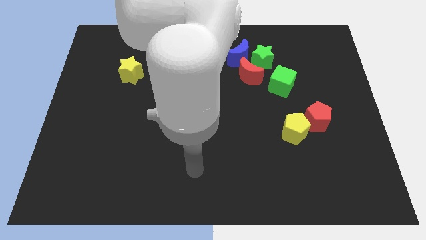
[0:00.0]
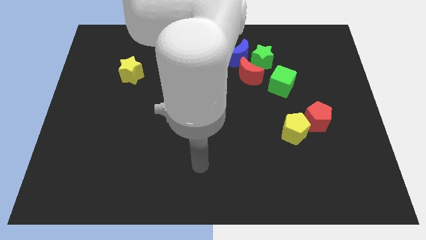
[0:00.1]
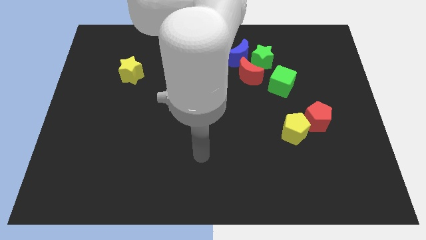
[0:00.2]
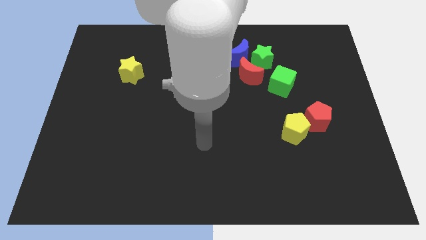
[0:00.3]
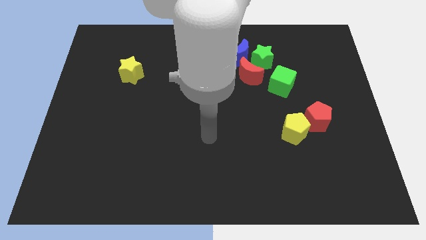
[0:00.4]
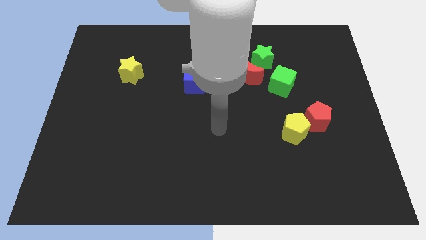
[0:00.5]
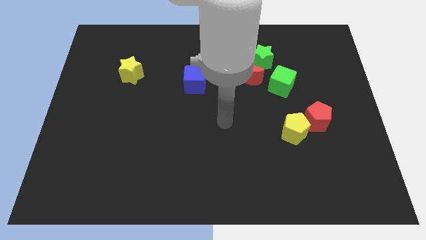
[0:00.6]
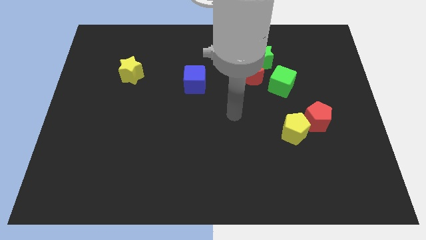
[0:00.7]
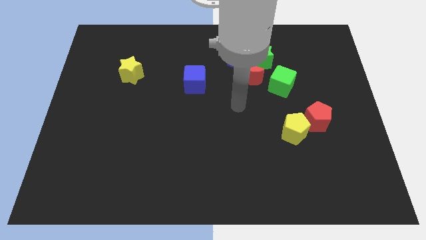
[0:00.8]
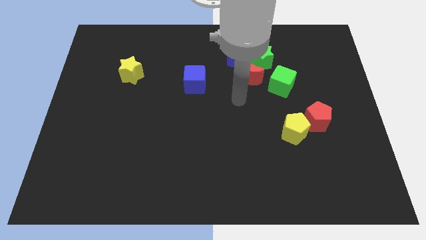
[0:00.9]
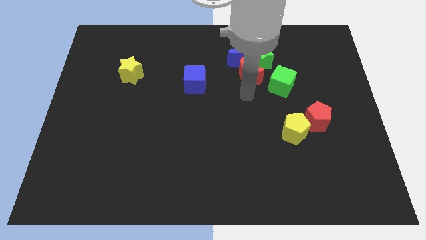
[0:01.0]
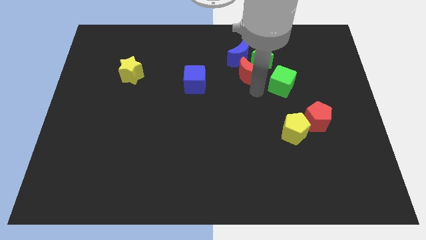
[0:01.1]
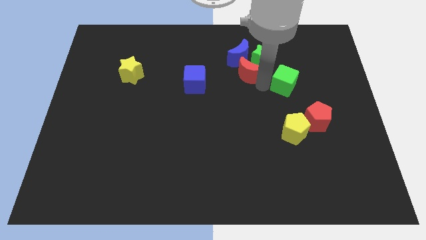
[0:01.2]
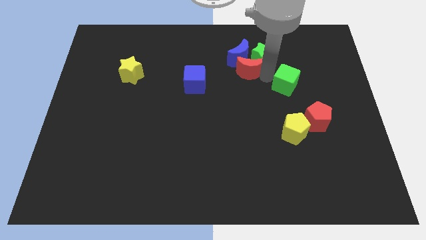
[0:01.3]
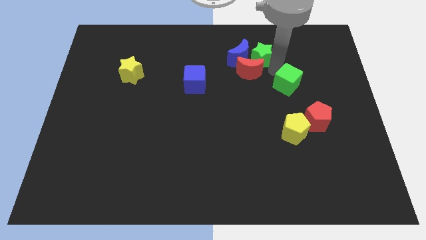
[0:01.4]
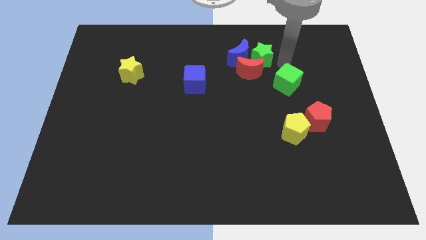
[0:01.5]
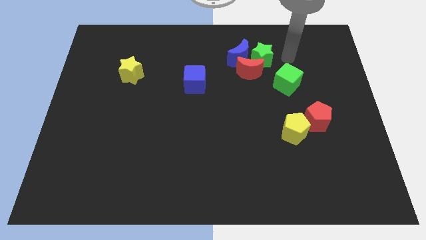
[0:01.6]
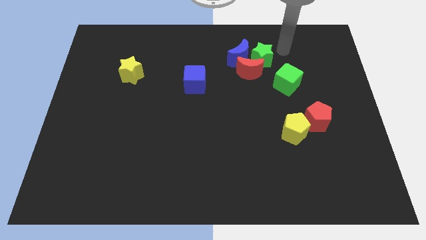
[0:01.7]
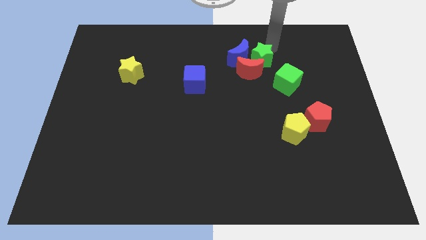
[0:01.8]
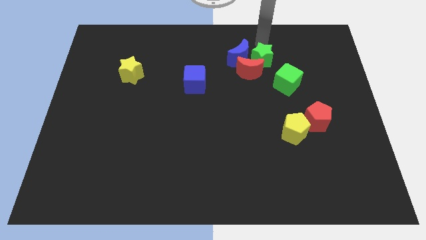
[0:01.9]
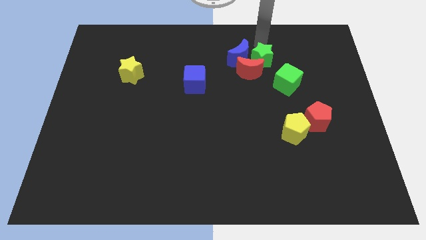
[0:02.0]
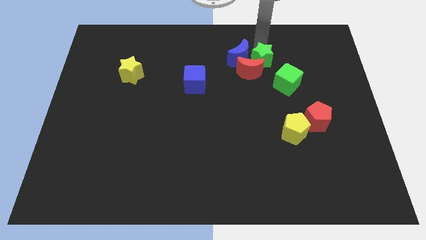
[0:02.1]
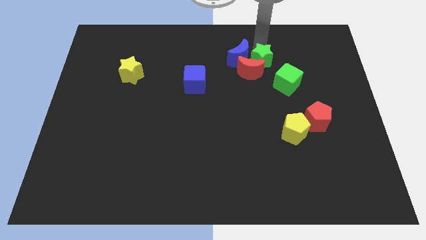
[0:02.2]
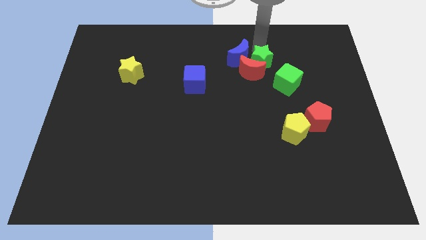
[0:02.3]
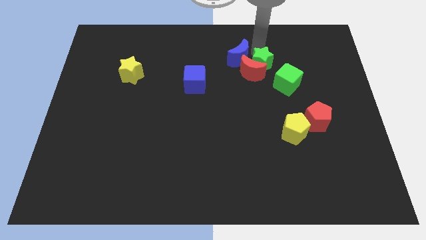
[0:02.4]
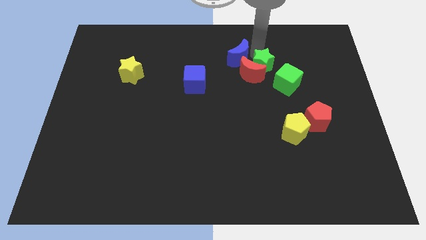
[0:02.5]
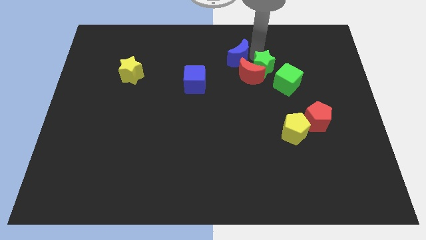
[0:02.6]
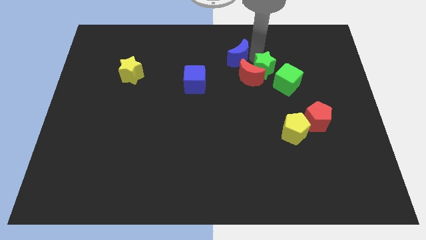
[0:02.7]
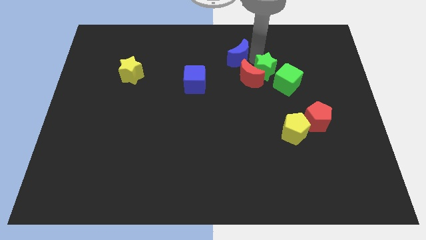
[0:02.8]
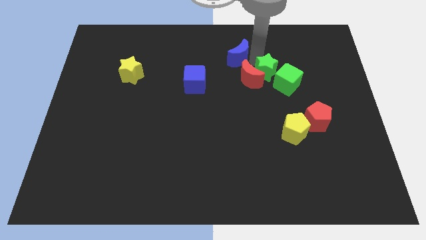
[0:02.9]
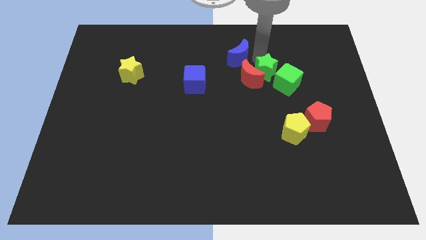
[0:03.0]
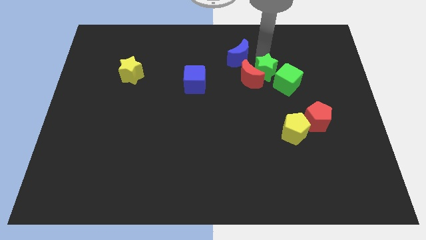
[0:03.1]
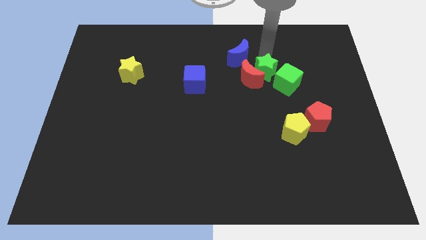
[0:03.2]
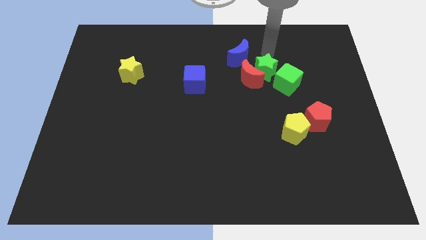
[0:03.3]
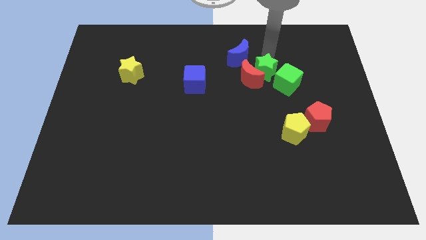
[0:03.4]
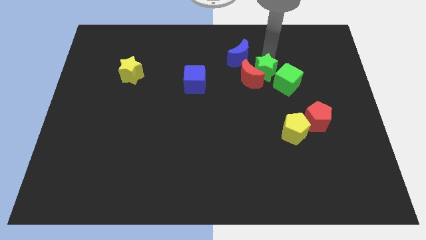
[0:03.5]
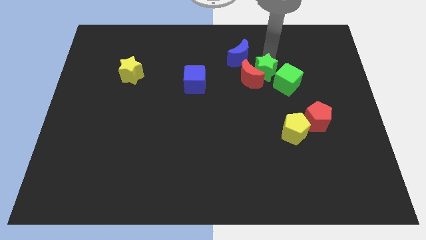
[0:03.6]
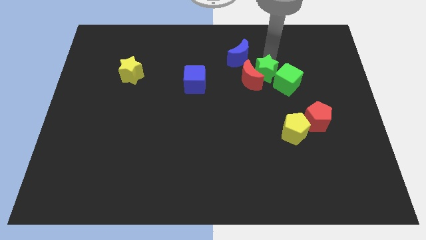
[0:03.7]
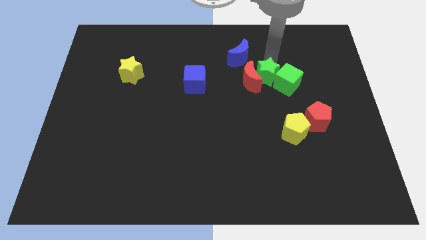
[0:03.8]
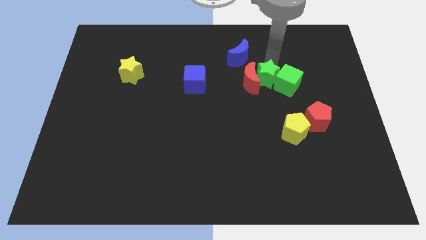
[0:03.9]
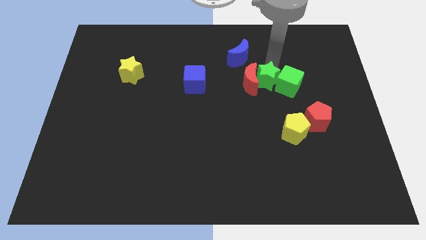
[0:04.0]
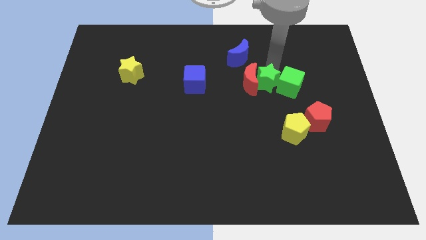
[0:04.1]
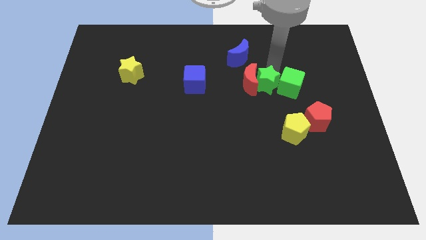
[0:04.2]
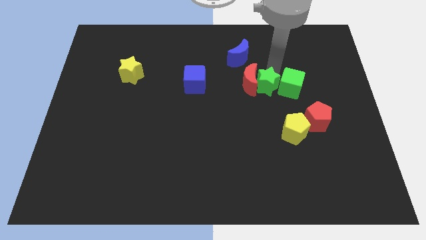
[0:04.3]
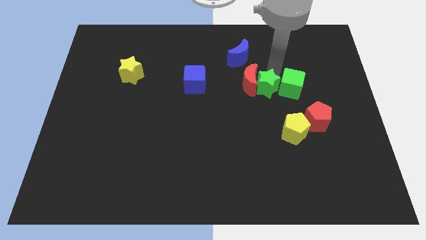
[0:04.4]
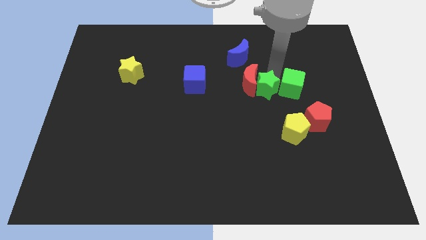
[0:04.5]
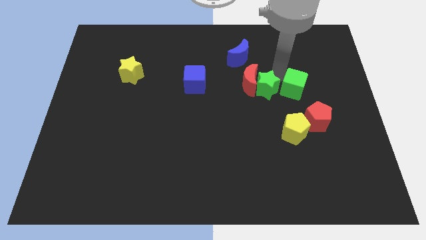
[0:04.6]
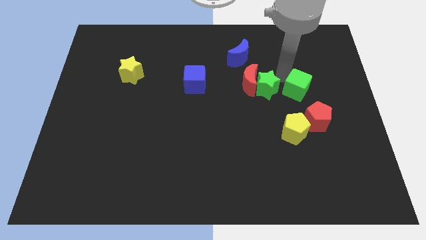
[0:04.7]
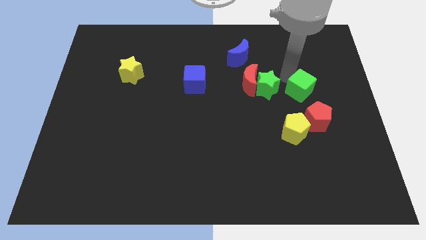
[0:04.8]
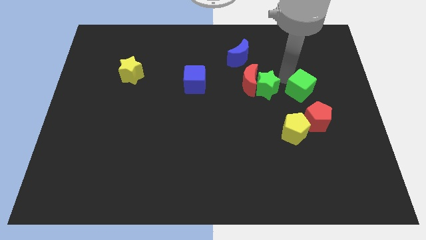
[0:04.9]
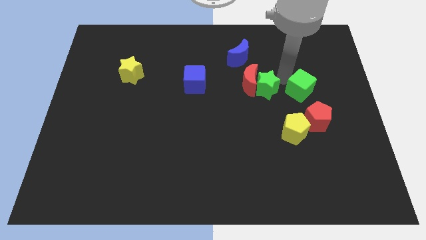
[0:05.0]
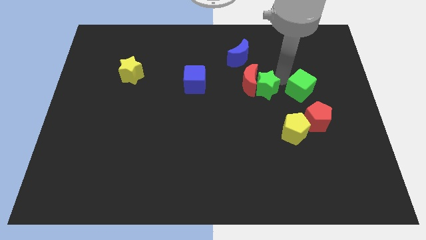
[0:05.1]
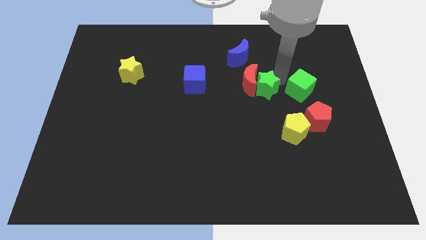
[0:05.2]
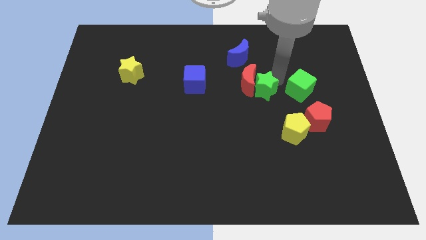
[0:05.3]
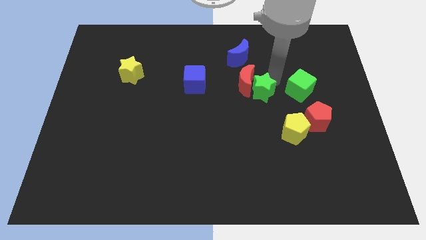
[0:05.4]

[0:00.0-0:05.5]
move the green star to the center of the board
